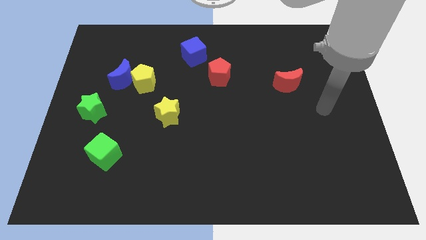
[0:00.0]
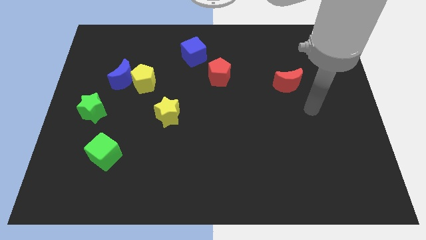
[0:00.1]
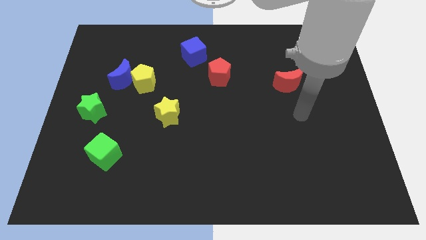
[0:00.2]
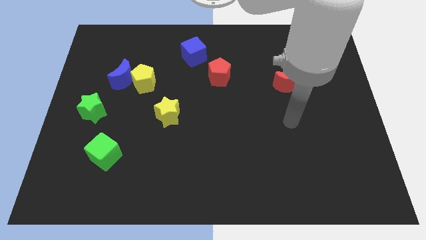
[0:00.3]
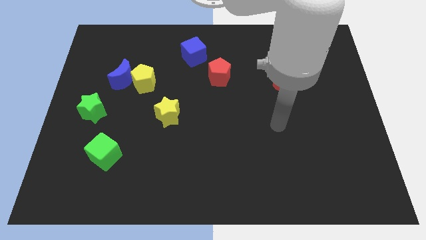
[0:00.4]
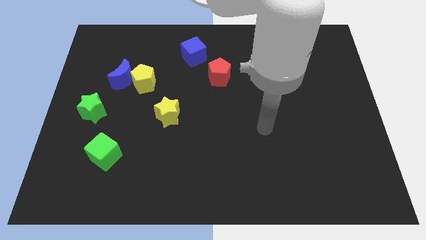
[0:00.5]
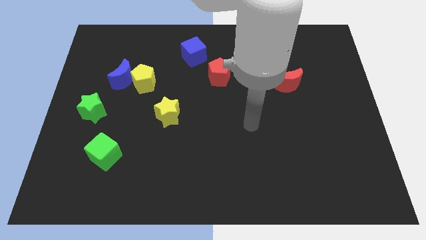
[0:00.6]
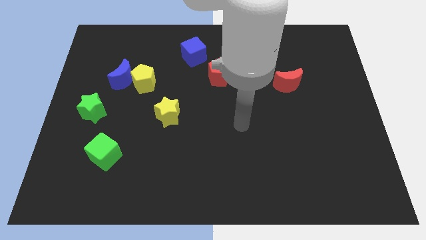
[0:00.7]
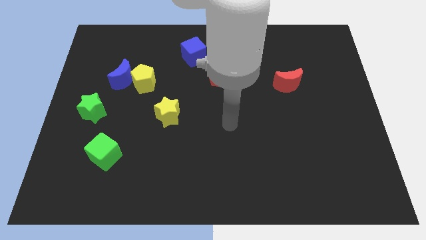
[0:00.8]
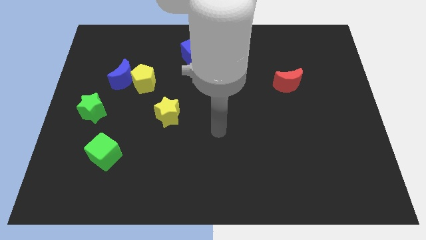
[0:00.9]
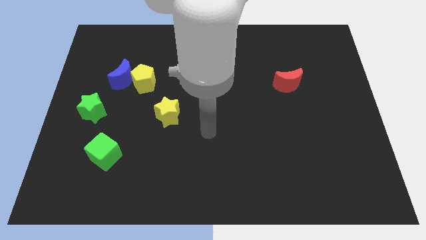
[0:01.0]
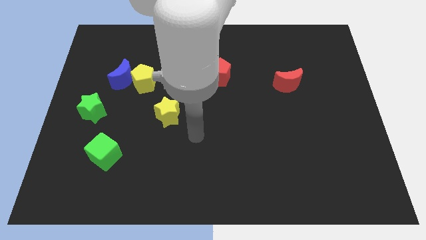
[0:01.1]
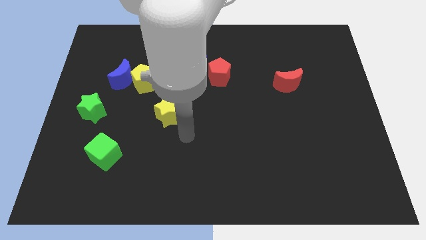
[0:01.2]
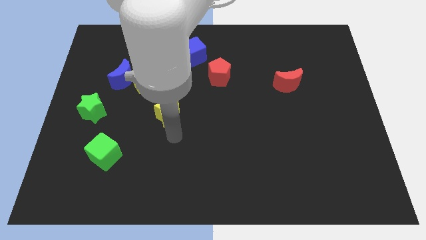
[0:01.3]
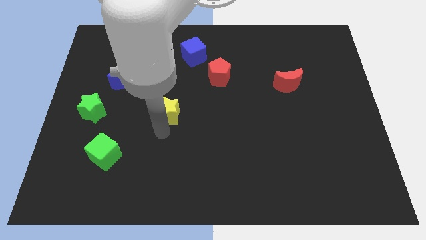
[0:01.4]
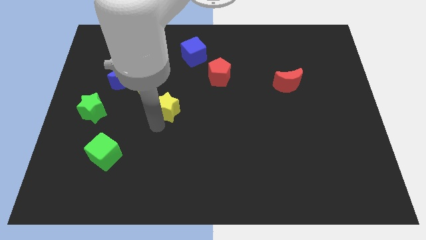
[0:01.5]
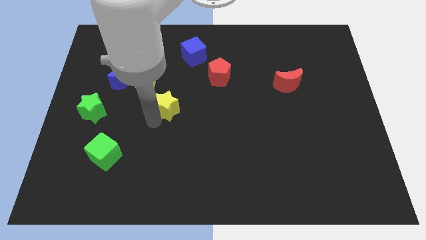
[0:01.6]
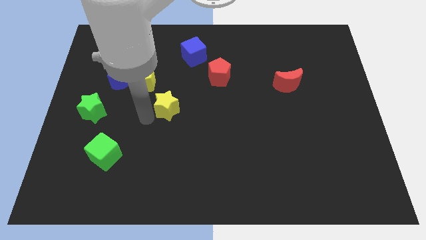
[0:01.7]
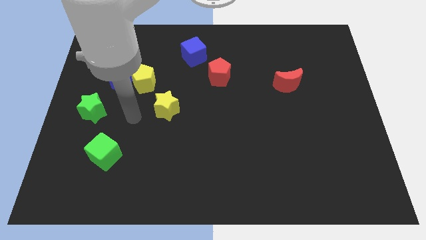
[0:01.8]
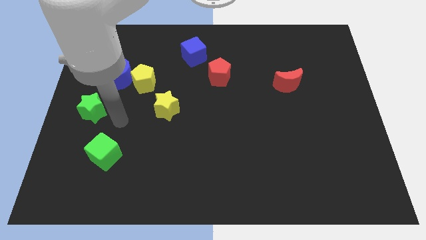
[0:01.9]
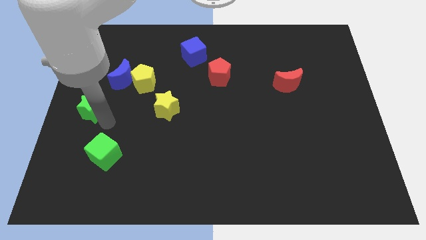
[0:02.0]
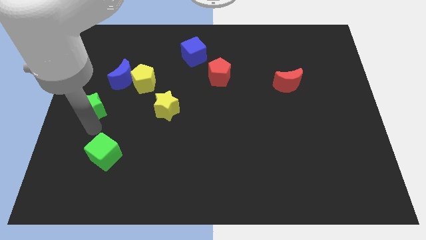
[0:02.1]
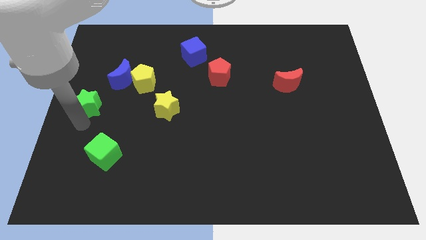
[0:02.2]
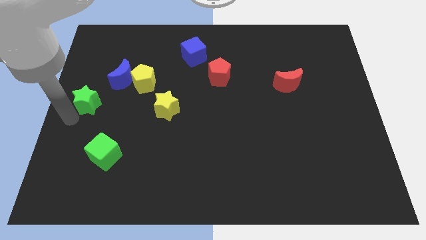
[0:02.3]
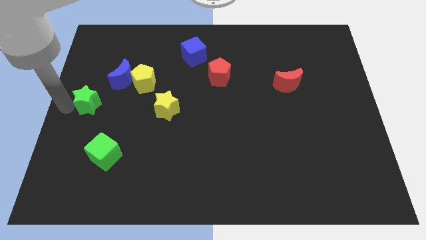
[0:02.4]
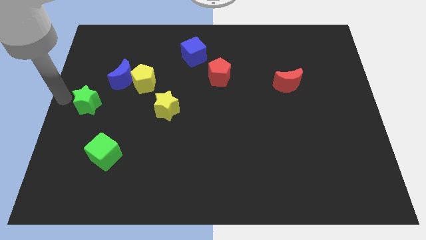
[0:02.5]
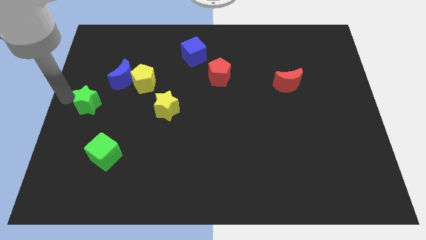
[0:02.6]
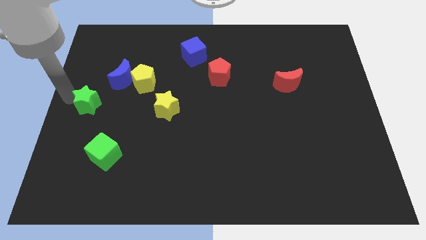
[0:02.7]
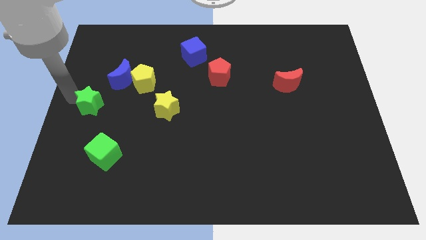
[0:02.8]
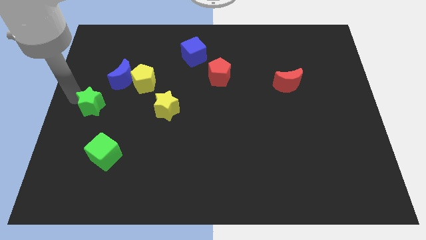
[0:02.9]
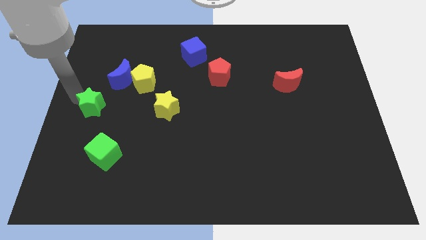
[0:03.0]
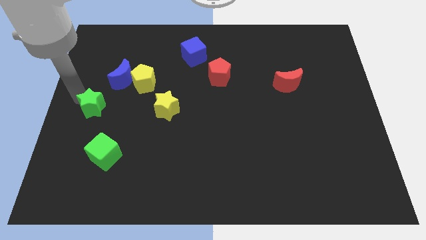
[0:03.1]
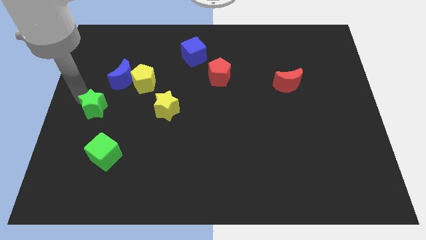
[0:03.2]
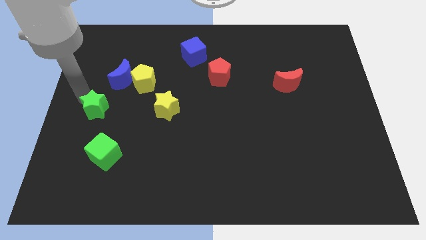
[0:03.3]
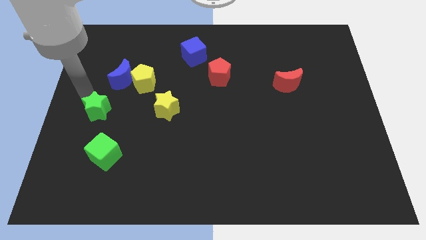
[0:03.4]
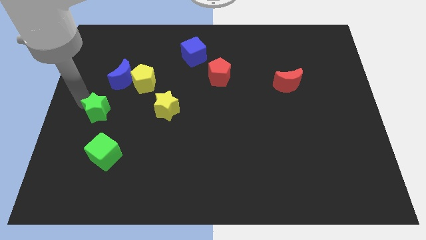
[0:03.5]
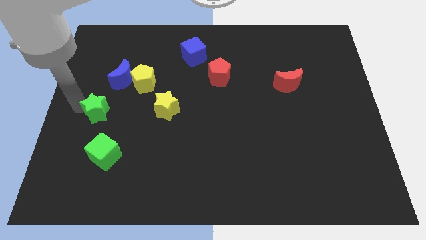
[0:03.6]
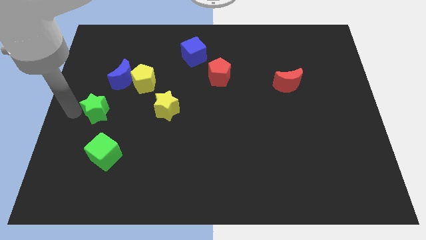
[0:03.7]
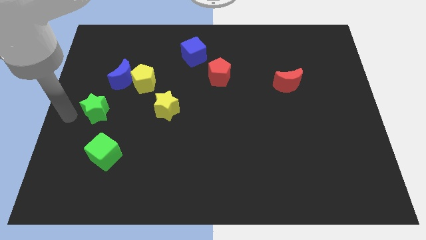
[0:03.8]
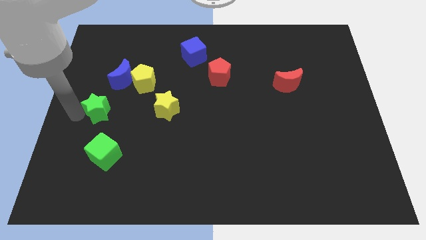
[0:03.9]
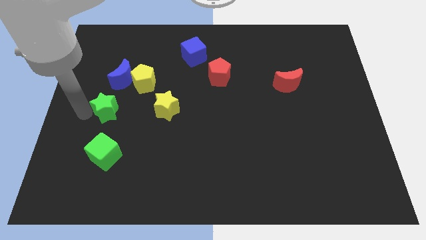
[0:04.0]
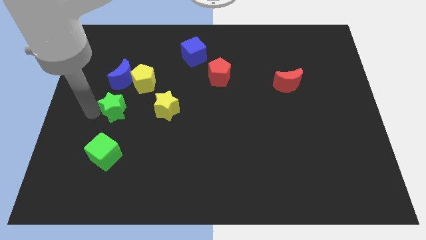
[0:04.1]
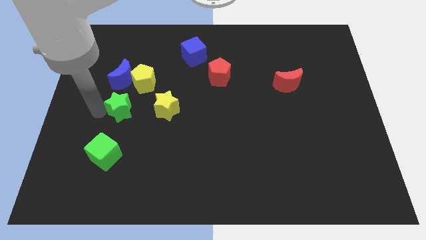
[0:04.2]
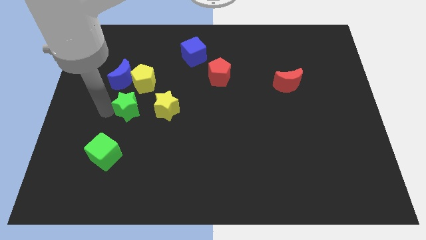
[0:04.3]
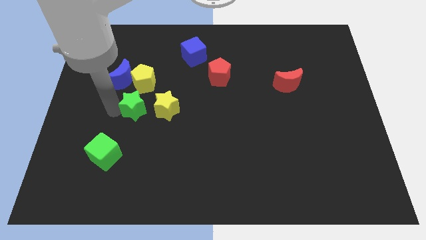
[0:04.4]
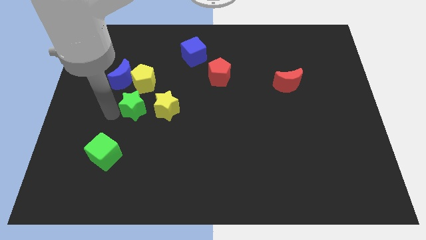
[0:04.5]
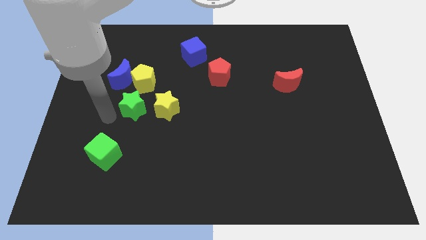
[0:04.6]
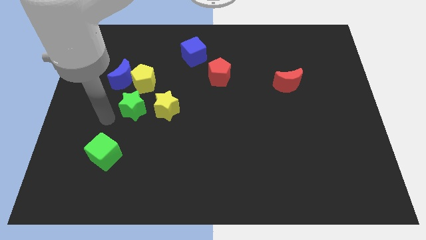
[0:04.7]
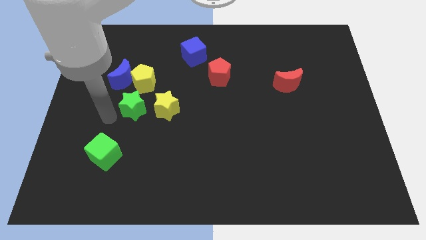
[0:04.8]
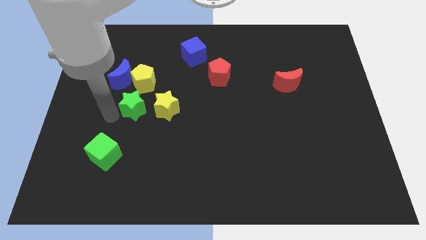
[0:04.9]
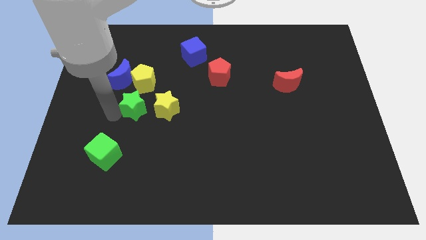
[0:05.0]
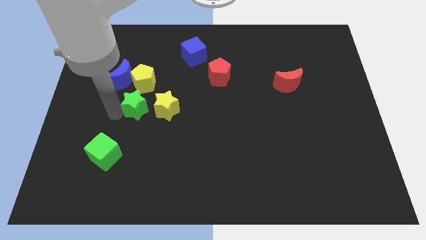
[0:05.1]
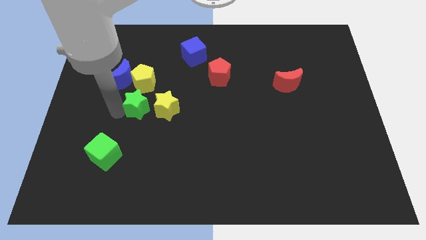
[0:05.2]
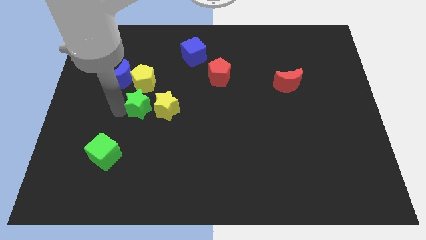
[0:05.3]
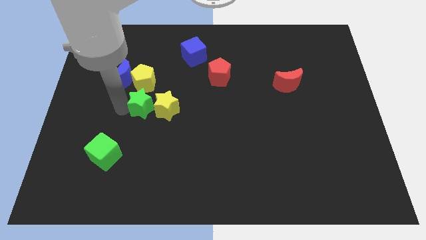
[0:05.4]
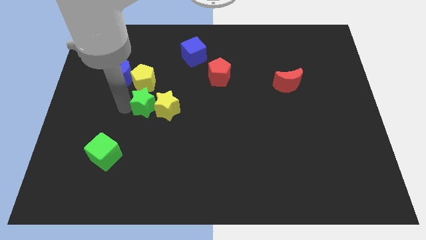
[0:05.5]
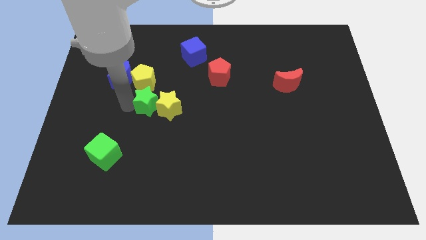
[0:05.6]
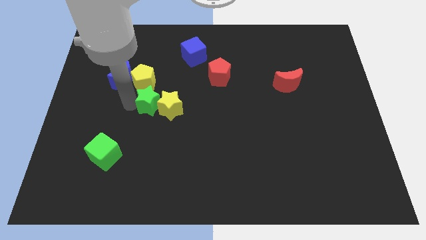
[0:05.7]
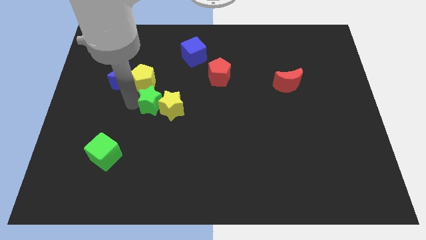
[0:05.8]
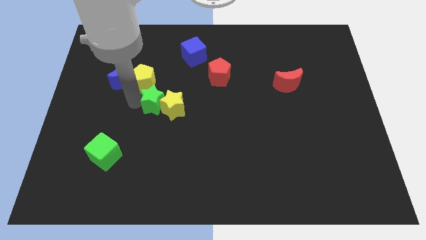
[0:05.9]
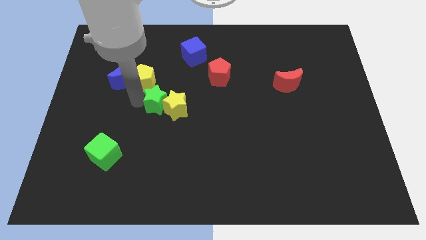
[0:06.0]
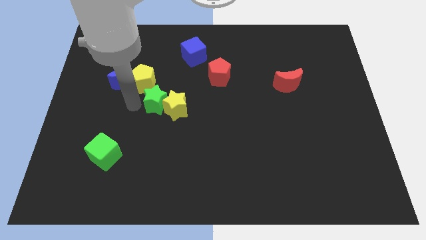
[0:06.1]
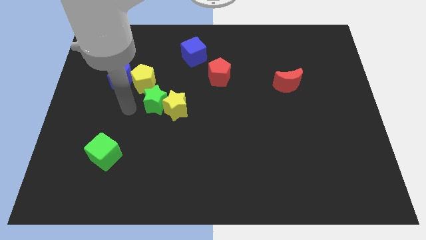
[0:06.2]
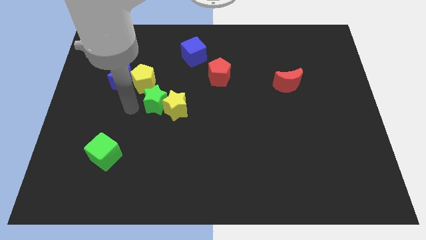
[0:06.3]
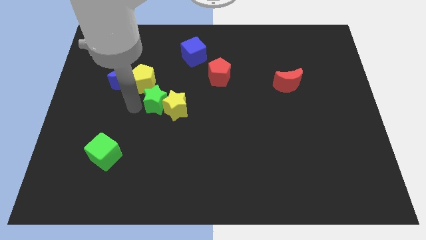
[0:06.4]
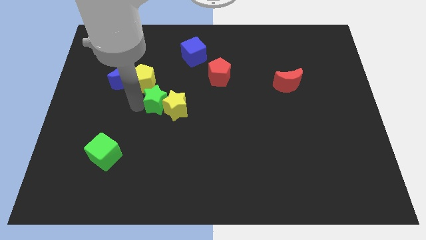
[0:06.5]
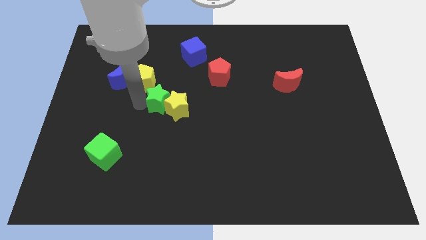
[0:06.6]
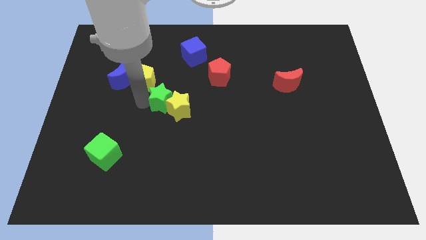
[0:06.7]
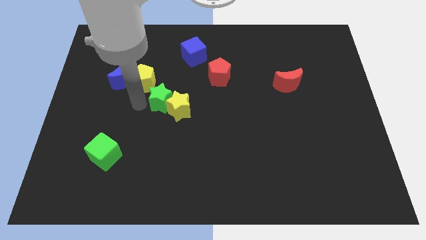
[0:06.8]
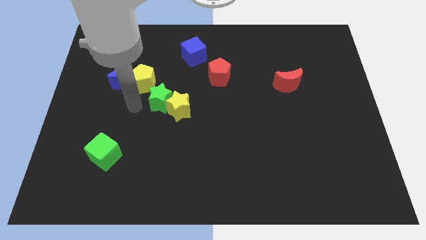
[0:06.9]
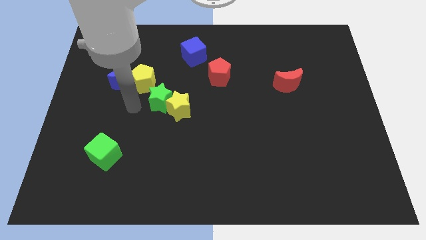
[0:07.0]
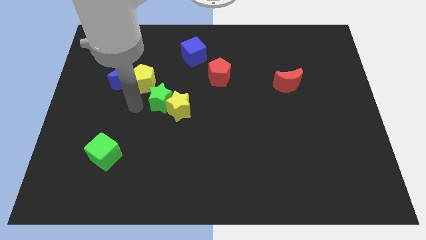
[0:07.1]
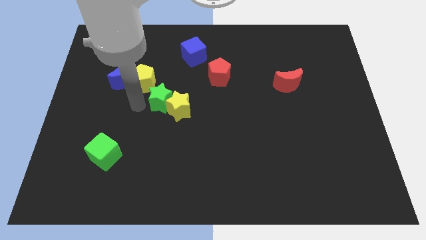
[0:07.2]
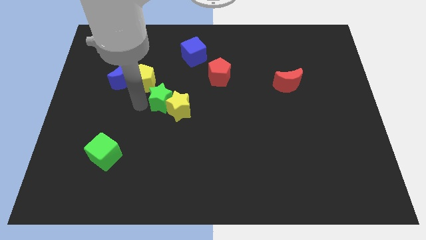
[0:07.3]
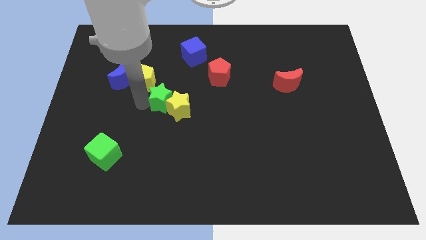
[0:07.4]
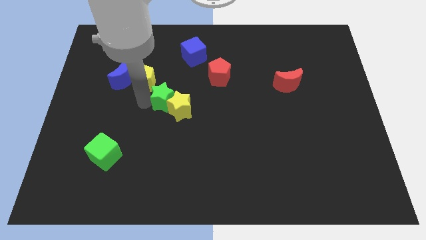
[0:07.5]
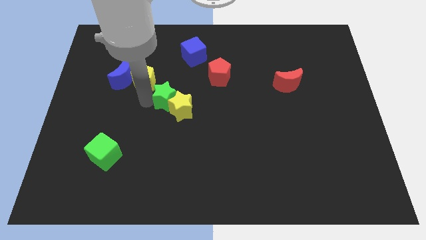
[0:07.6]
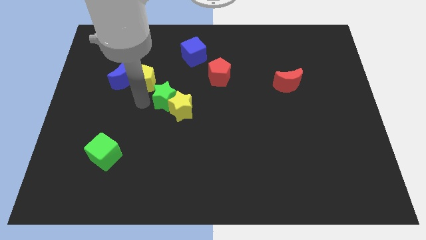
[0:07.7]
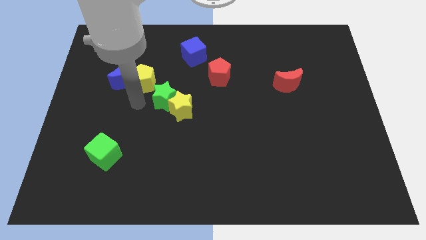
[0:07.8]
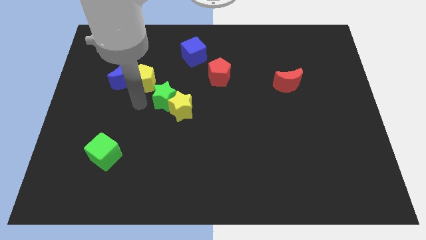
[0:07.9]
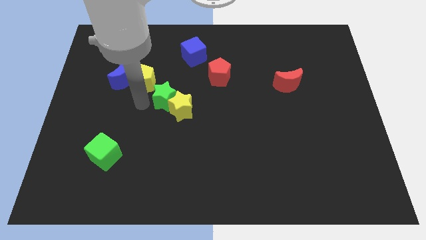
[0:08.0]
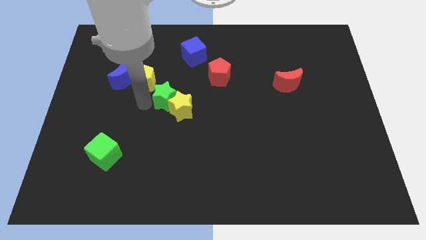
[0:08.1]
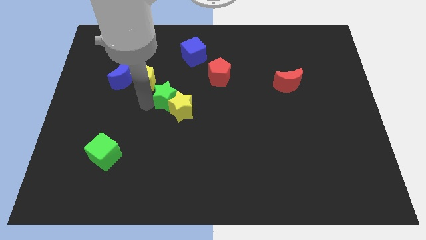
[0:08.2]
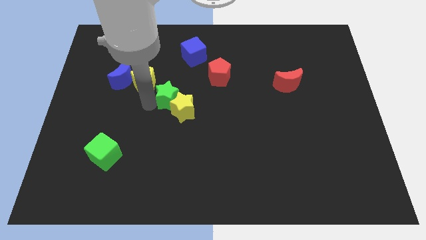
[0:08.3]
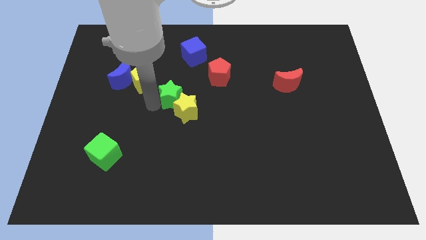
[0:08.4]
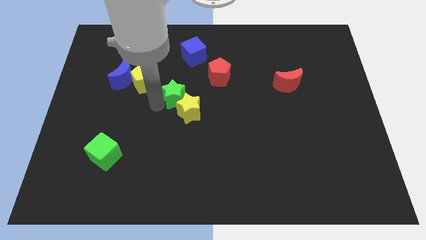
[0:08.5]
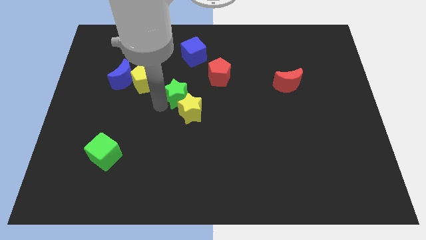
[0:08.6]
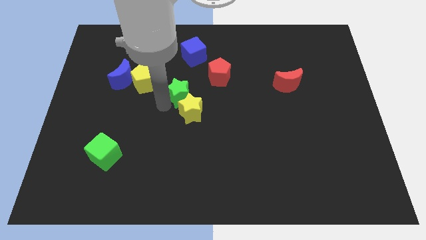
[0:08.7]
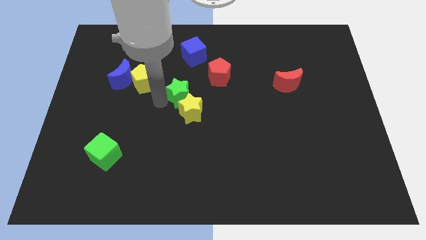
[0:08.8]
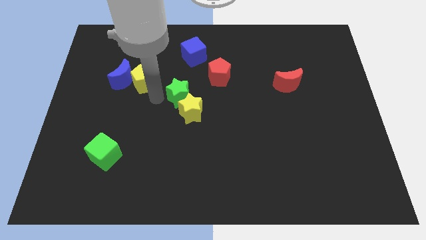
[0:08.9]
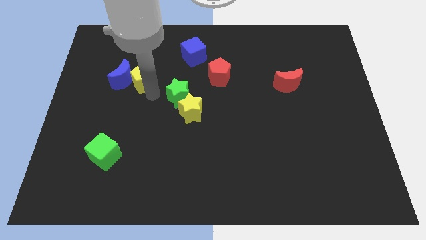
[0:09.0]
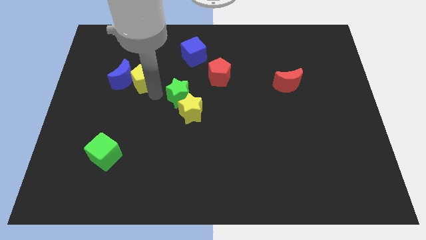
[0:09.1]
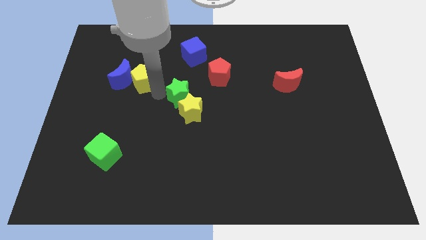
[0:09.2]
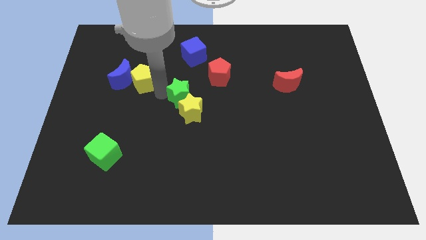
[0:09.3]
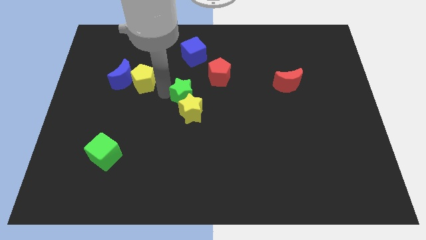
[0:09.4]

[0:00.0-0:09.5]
push the green star right
